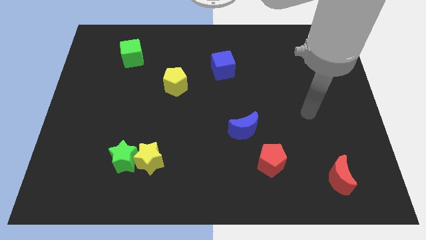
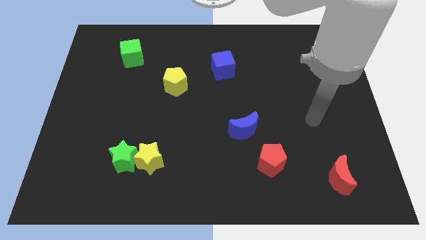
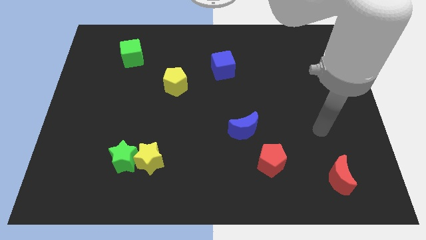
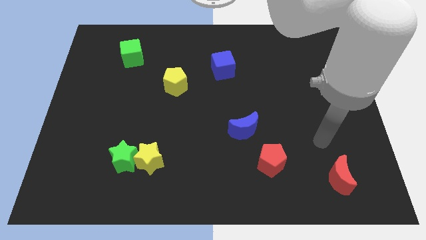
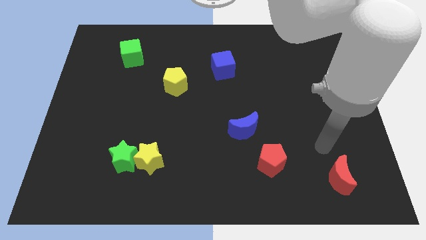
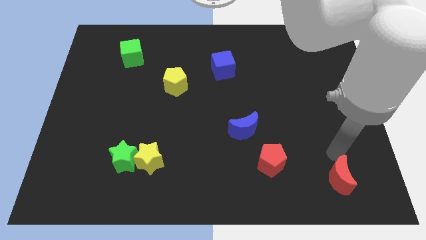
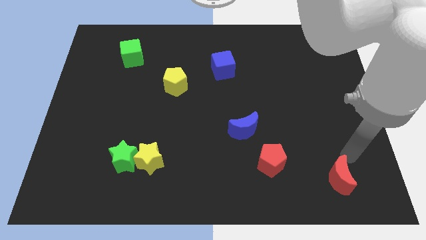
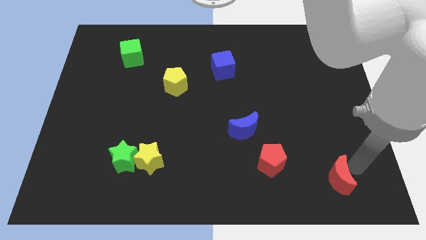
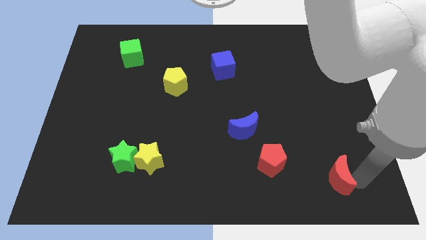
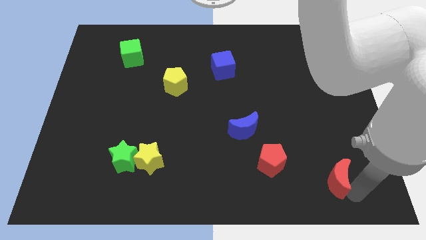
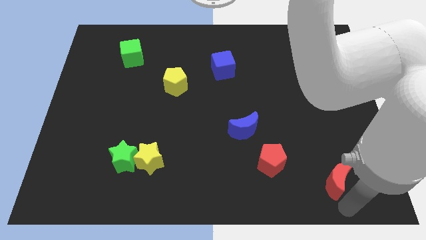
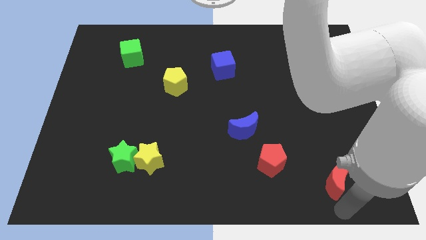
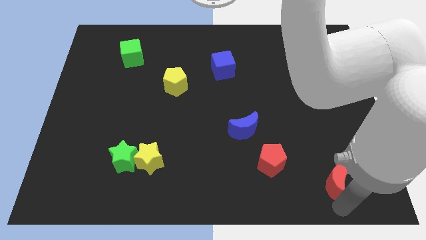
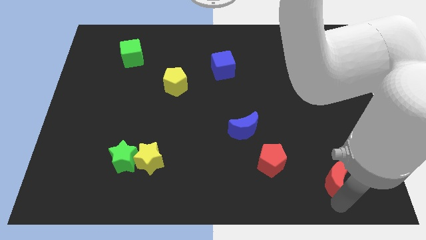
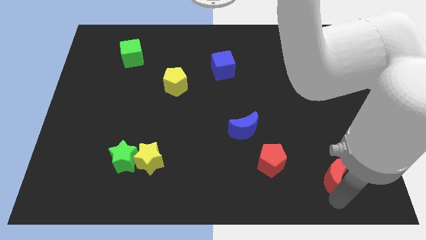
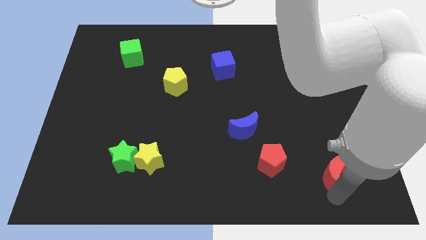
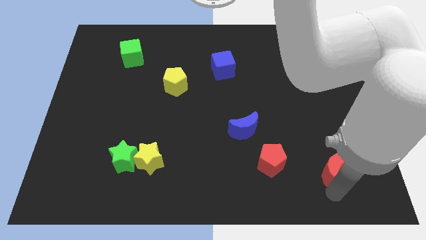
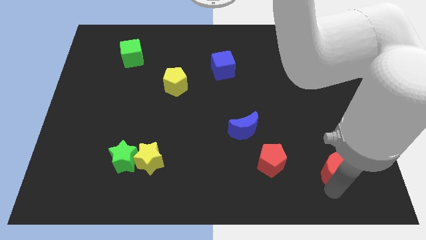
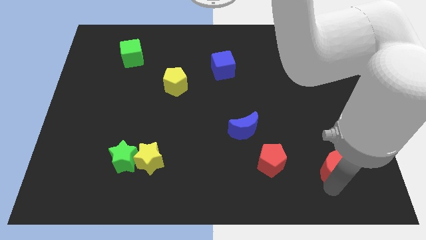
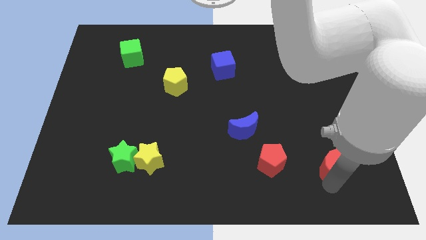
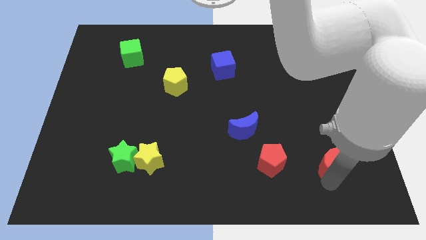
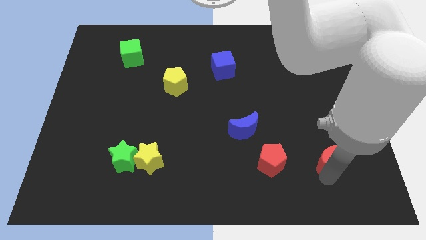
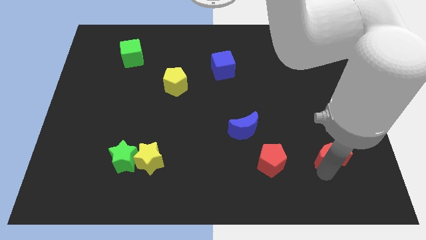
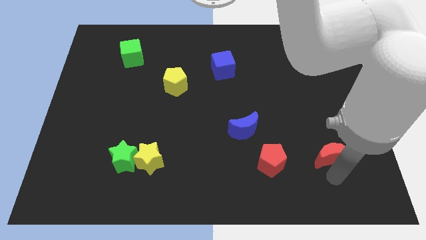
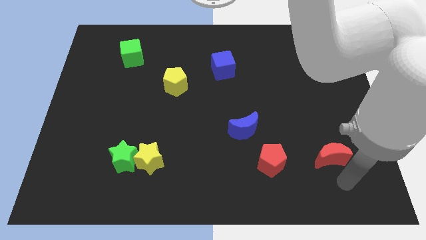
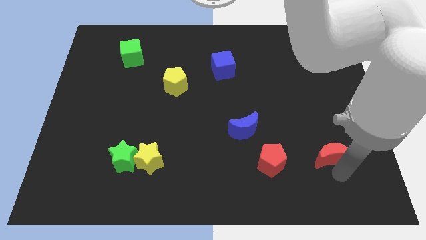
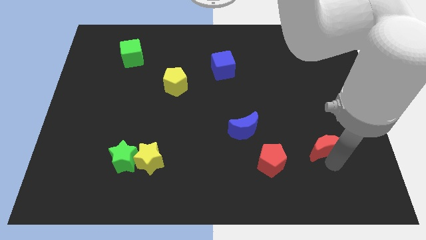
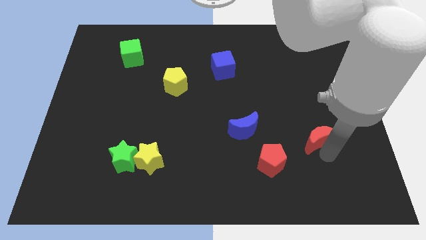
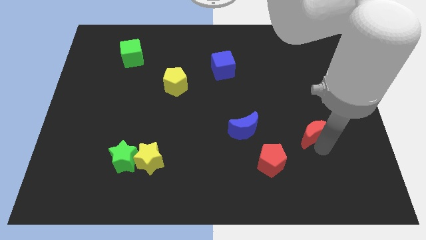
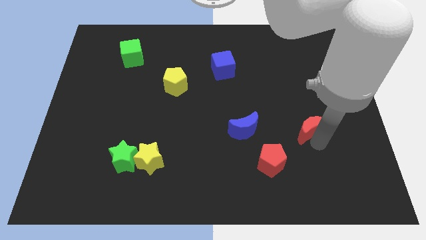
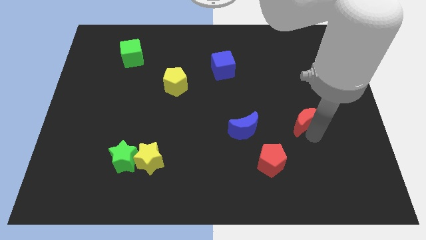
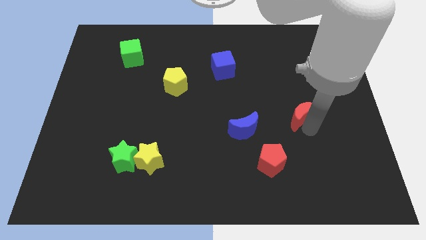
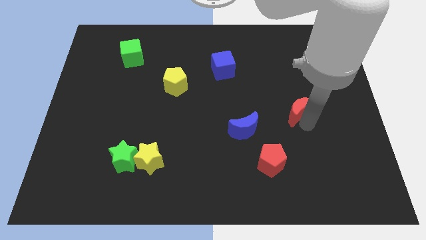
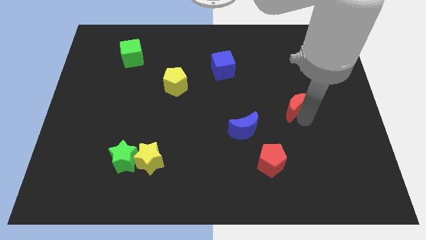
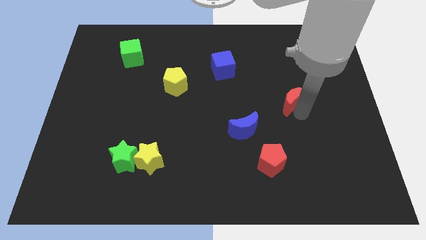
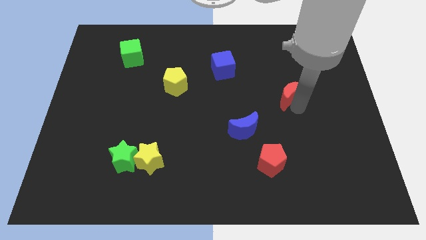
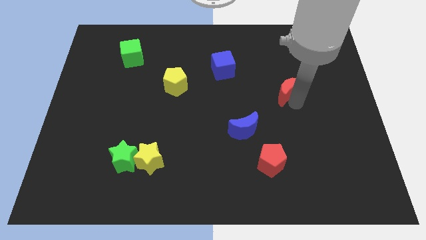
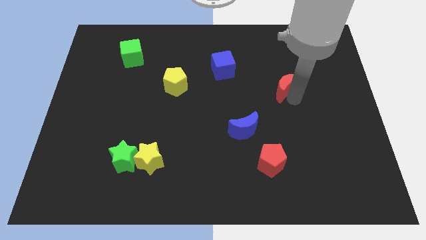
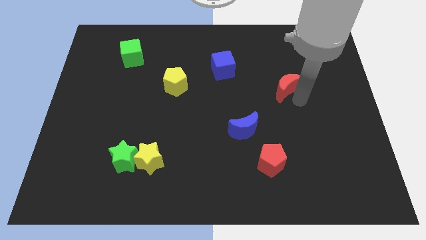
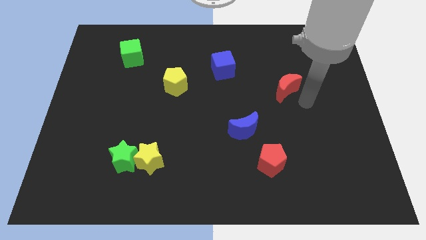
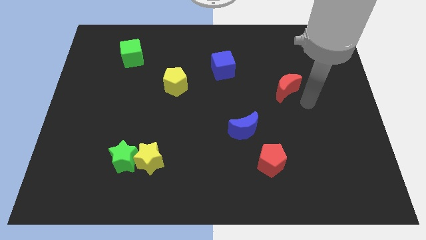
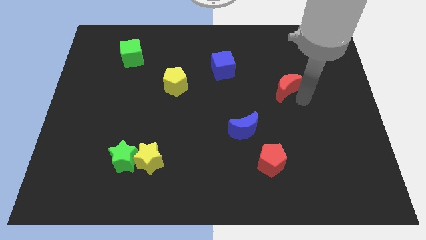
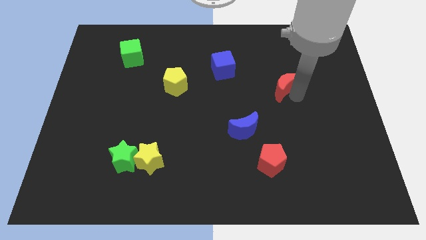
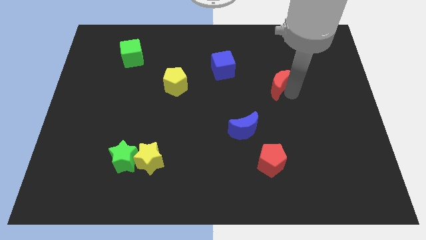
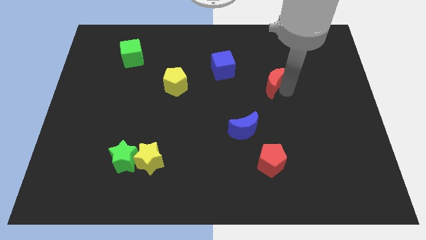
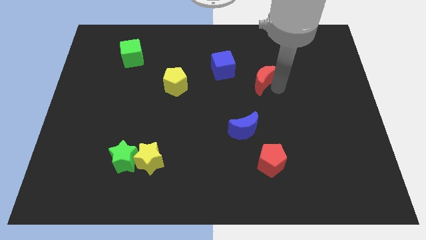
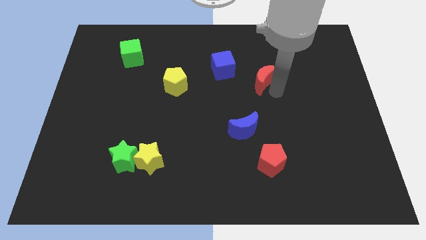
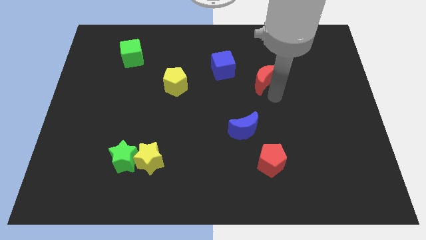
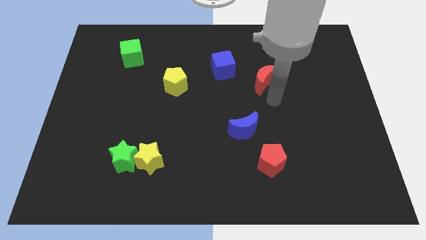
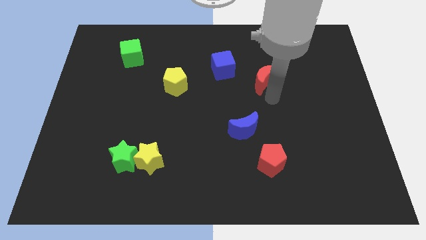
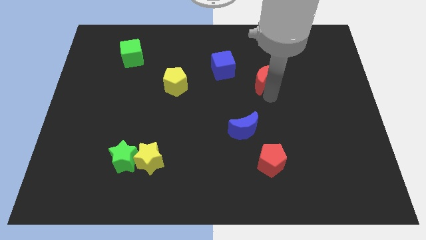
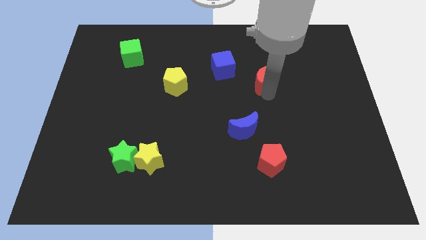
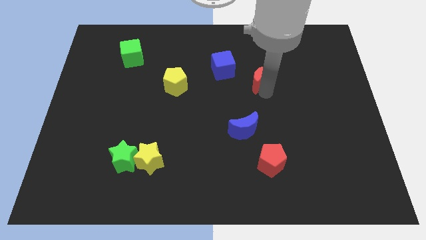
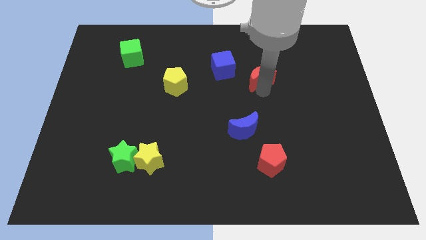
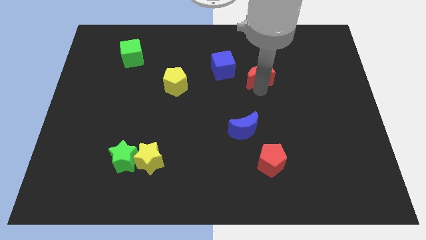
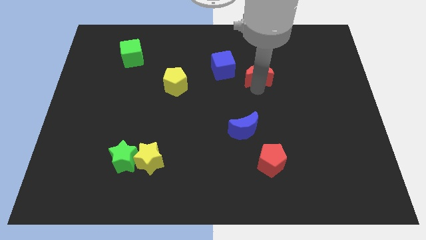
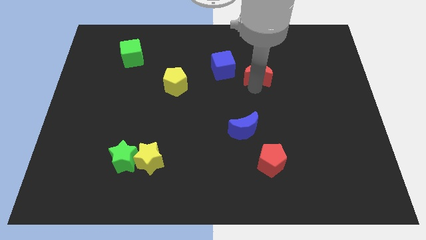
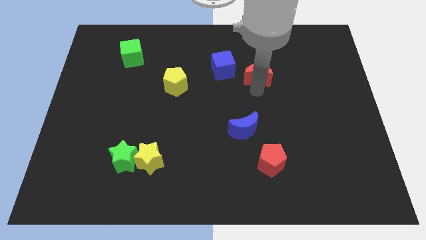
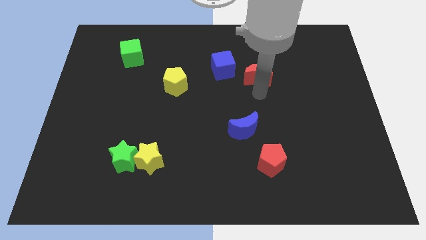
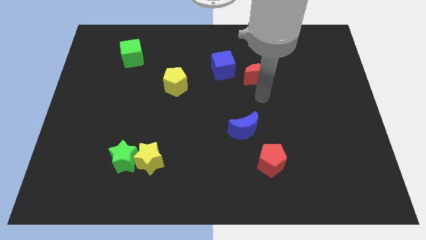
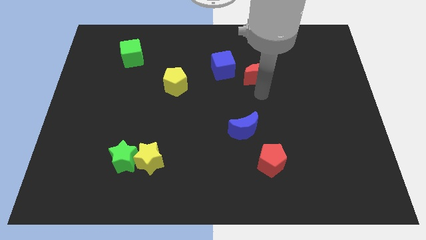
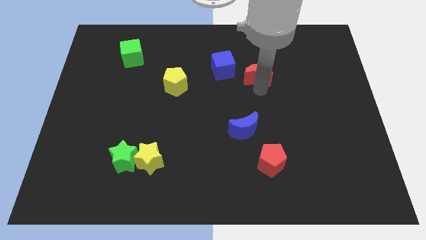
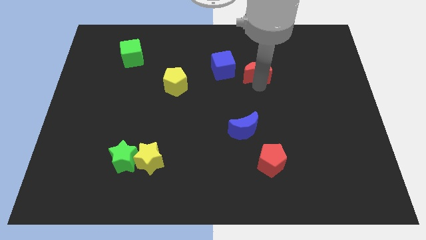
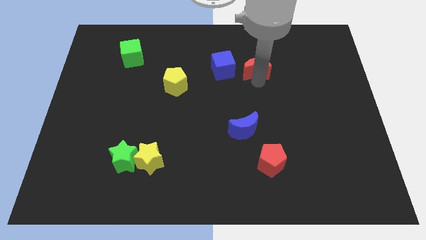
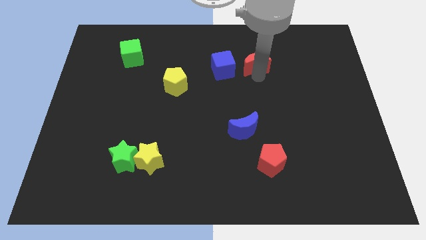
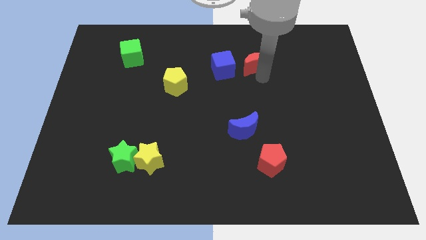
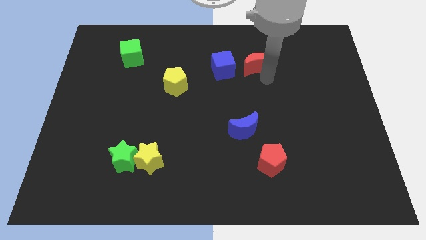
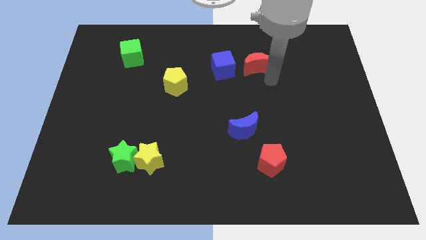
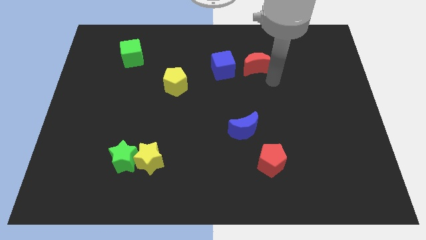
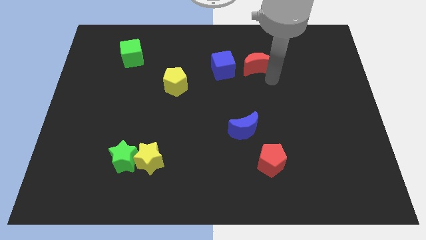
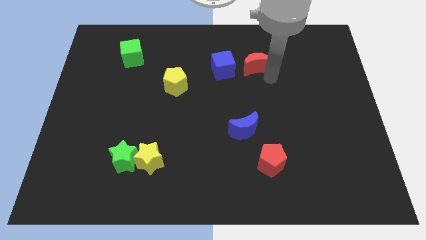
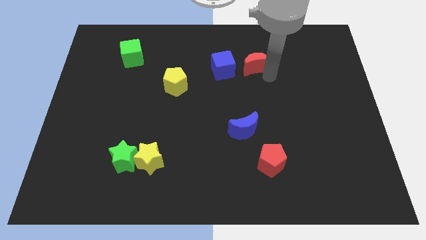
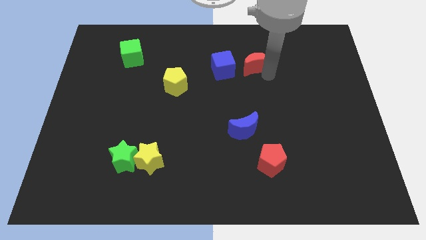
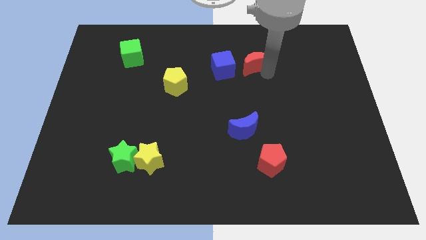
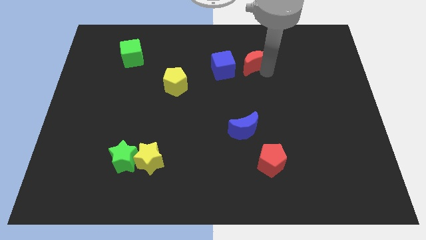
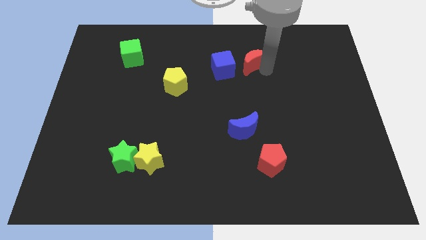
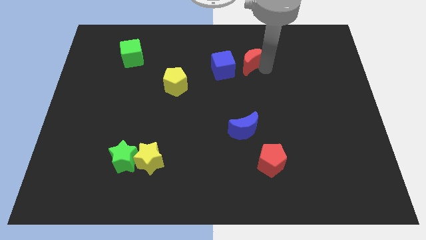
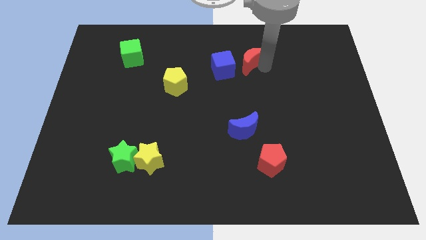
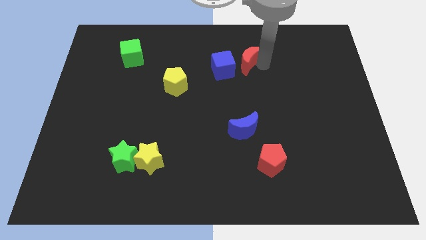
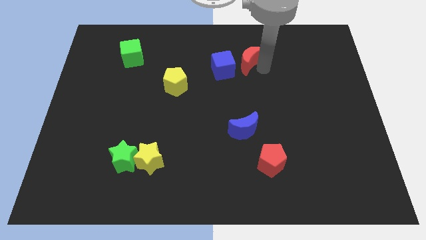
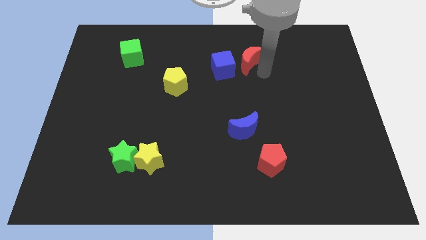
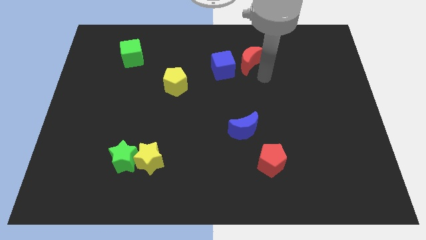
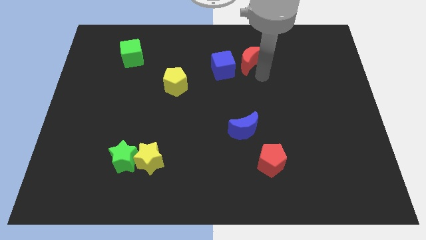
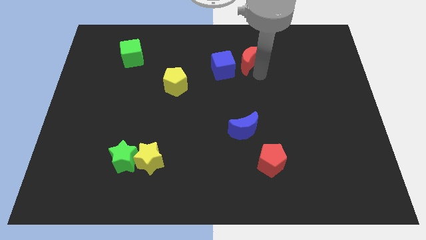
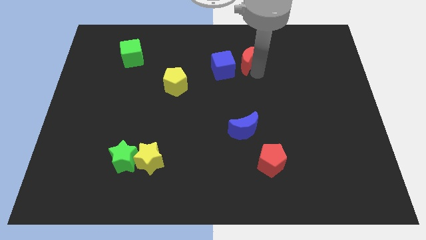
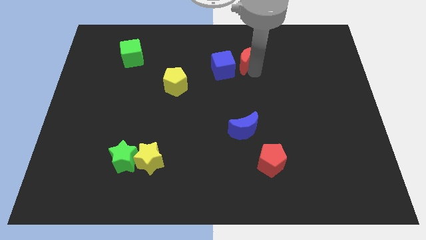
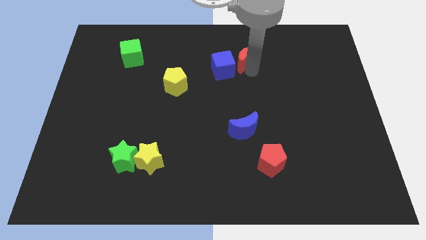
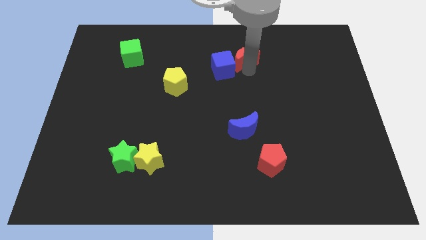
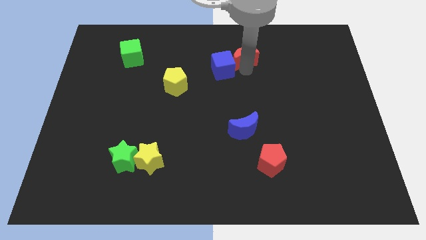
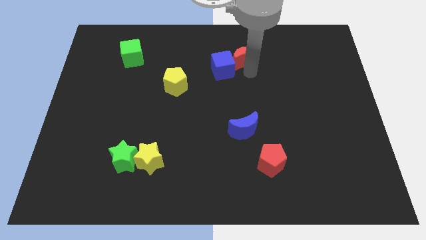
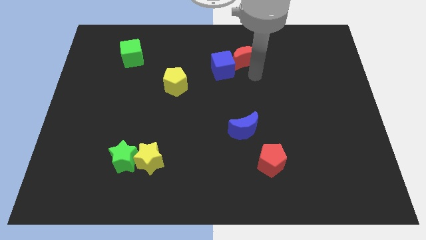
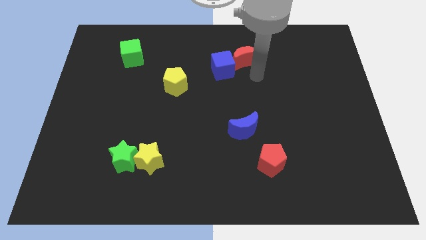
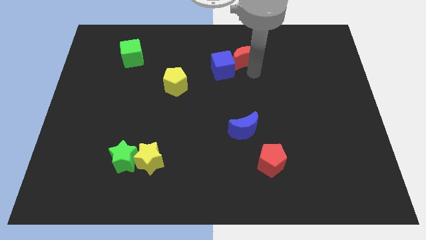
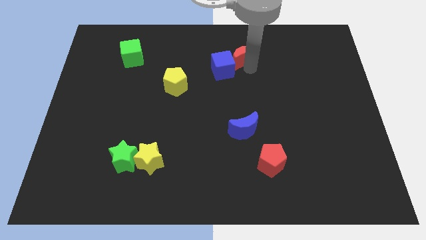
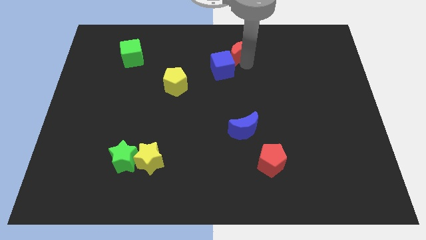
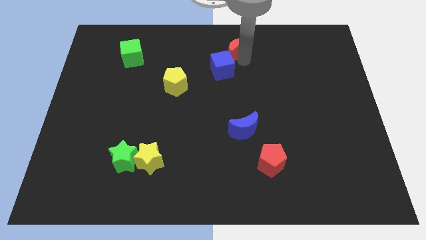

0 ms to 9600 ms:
slide the red moon to the top side
